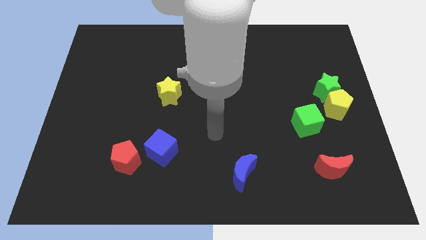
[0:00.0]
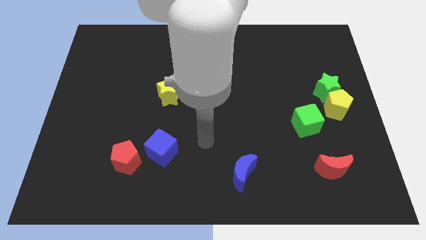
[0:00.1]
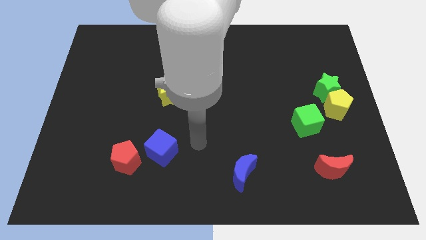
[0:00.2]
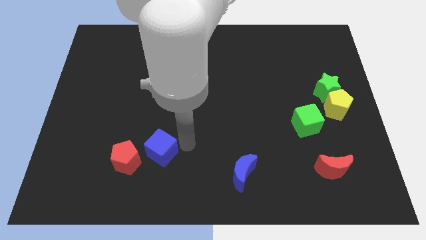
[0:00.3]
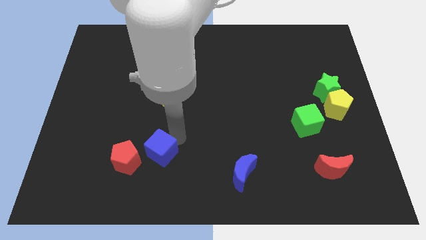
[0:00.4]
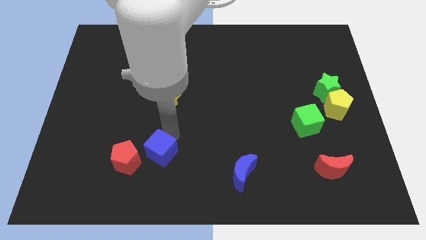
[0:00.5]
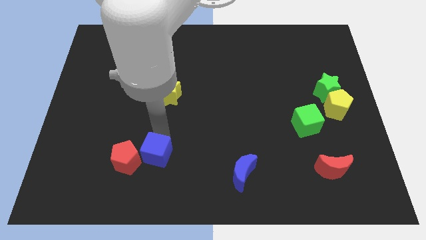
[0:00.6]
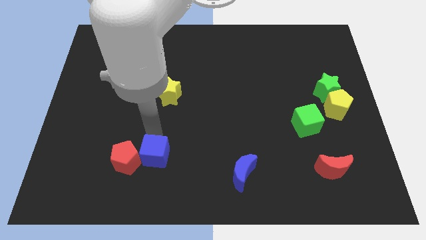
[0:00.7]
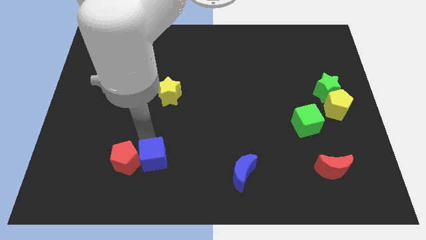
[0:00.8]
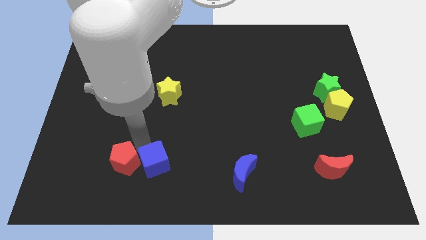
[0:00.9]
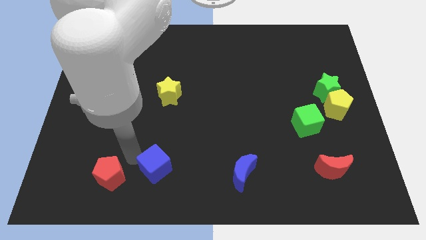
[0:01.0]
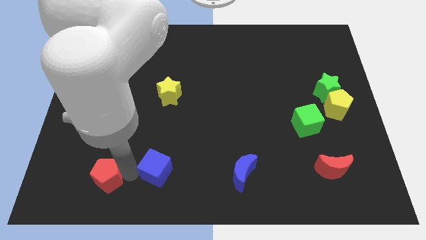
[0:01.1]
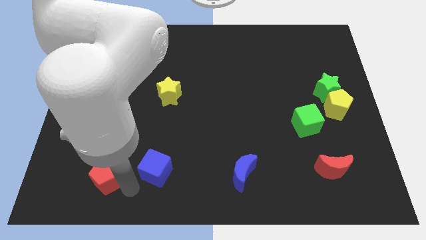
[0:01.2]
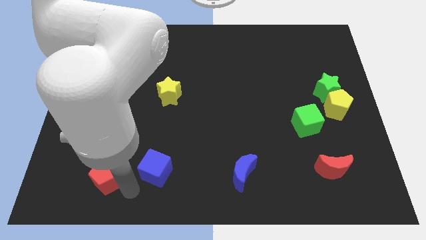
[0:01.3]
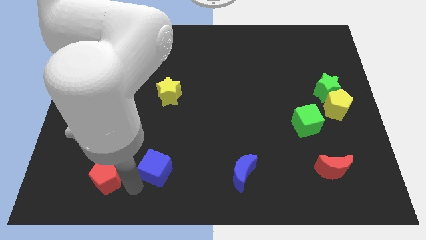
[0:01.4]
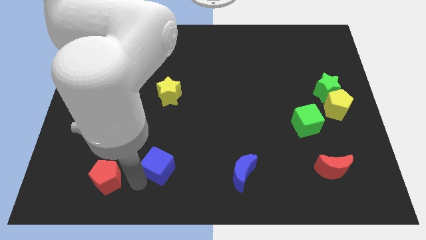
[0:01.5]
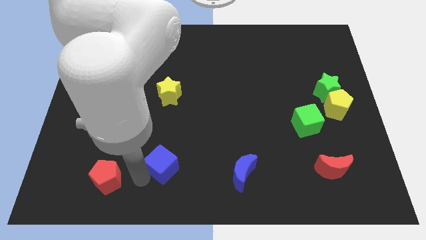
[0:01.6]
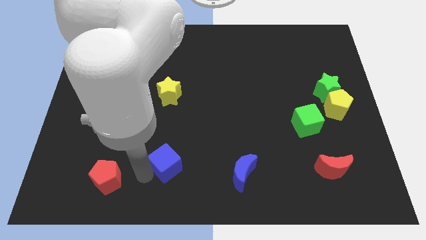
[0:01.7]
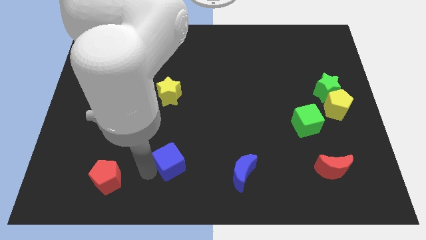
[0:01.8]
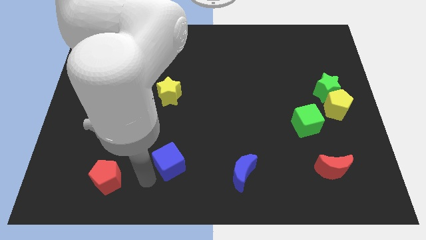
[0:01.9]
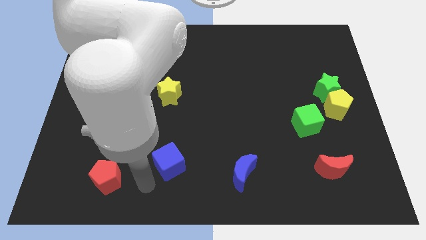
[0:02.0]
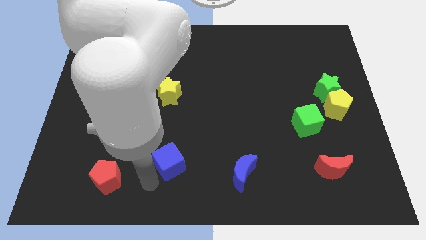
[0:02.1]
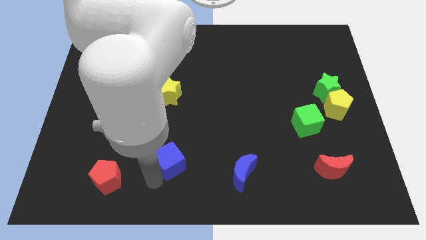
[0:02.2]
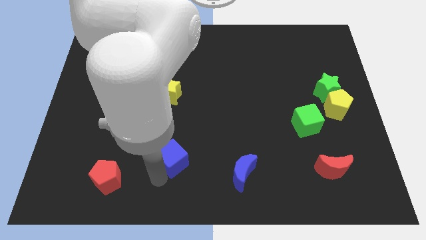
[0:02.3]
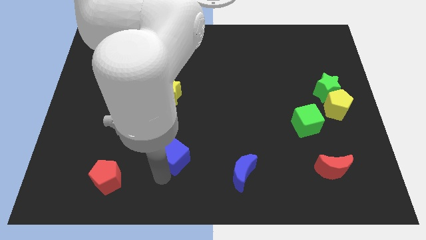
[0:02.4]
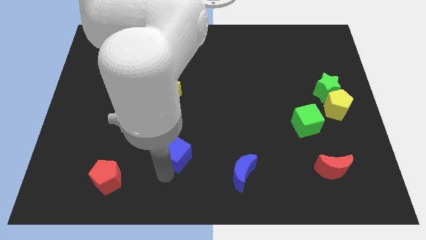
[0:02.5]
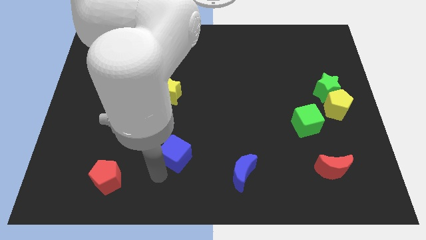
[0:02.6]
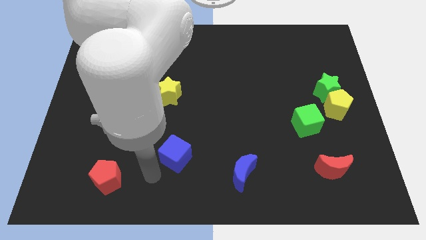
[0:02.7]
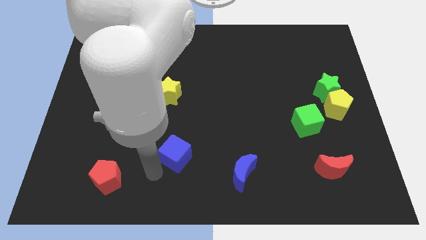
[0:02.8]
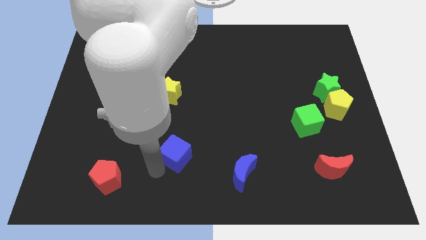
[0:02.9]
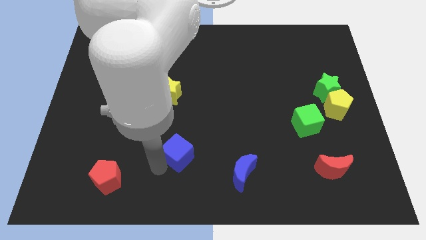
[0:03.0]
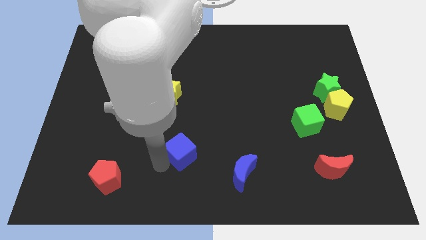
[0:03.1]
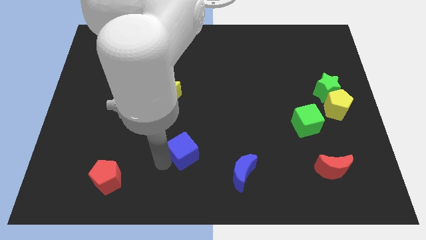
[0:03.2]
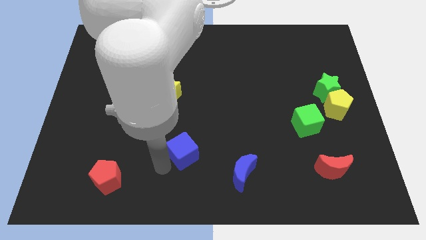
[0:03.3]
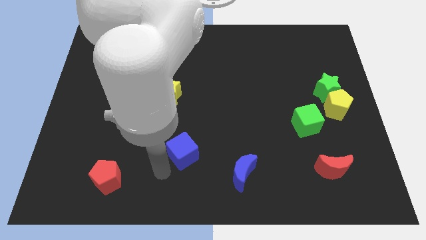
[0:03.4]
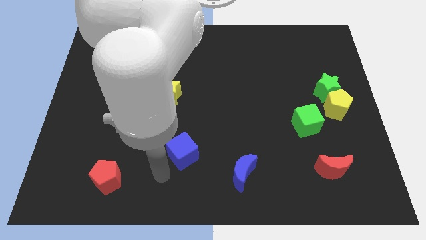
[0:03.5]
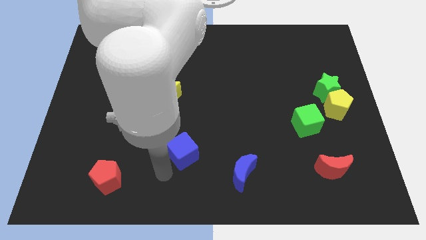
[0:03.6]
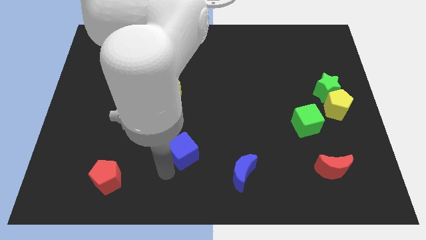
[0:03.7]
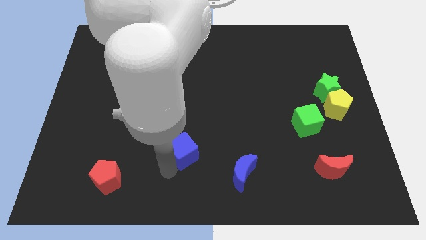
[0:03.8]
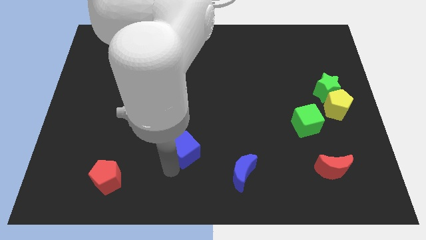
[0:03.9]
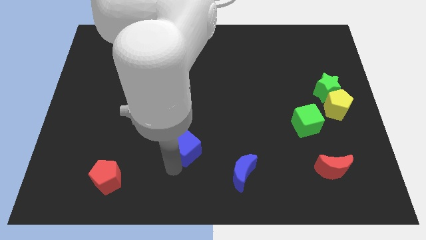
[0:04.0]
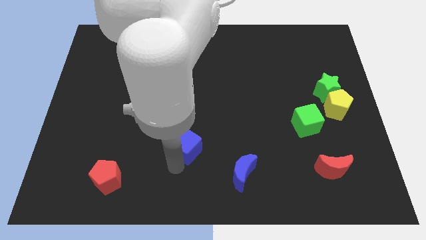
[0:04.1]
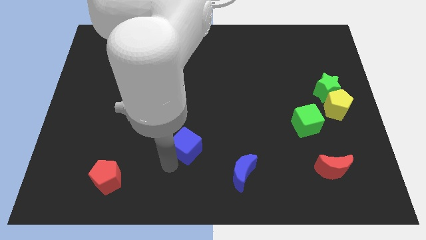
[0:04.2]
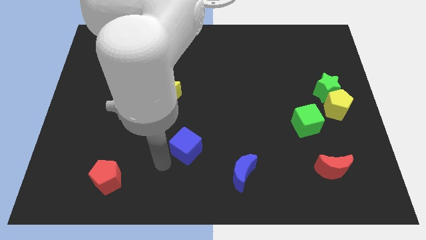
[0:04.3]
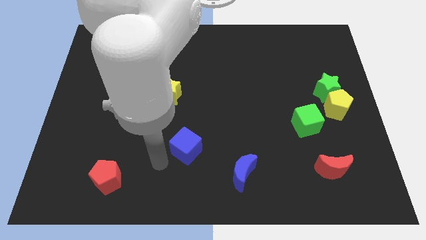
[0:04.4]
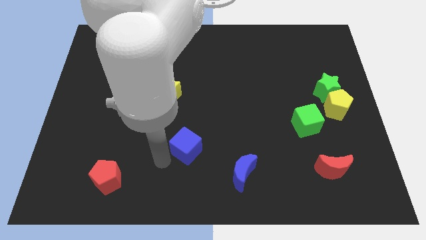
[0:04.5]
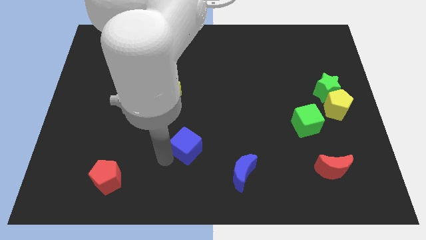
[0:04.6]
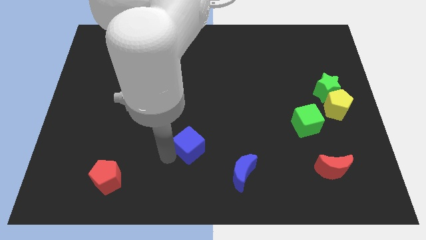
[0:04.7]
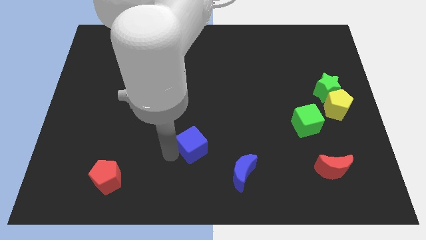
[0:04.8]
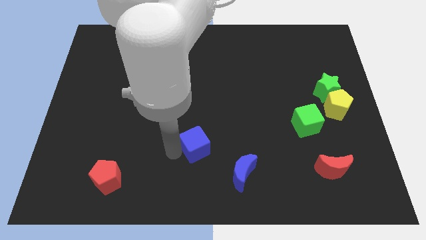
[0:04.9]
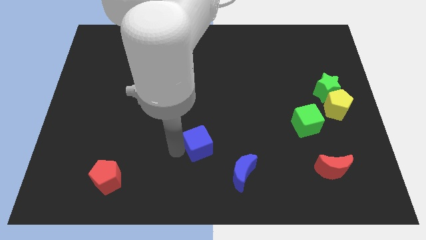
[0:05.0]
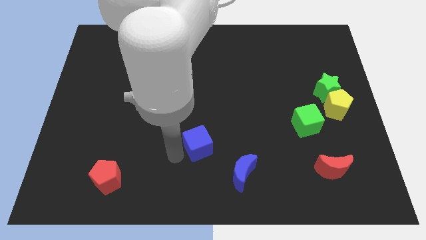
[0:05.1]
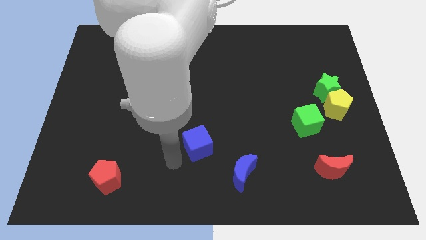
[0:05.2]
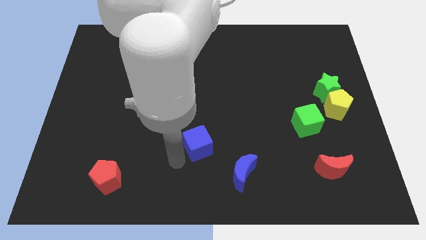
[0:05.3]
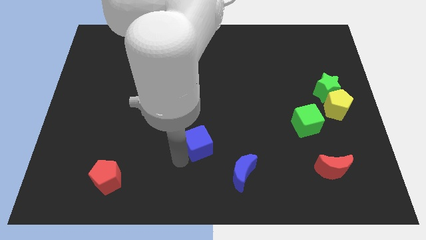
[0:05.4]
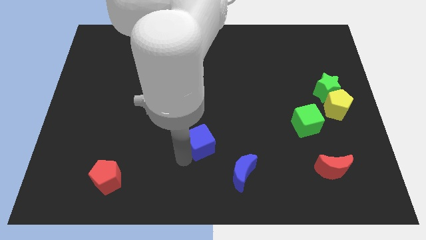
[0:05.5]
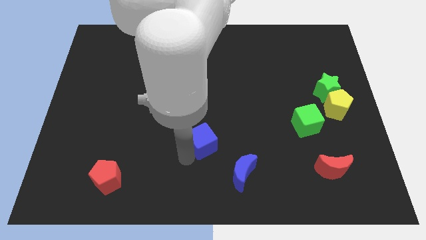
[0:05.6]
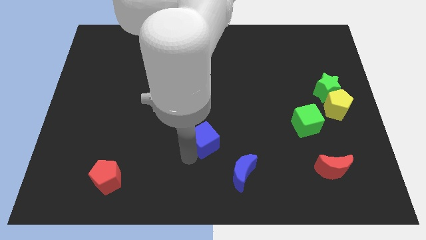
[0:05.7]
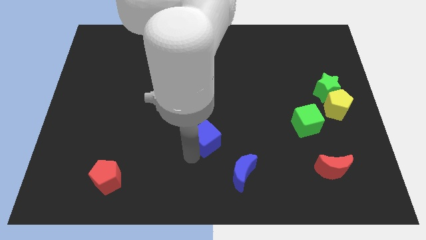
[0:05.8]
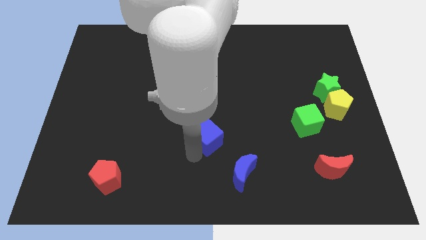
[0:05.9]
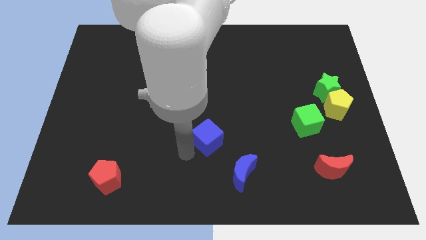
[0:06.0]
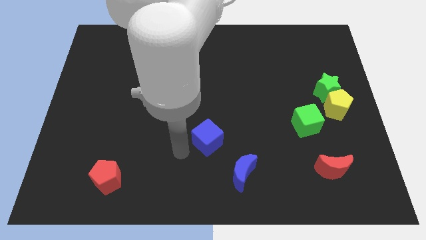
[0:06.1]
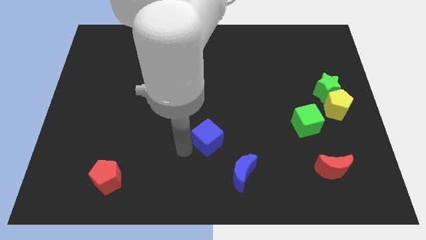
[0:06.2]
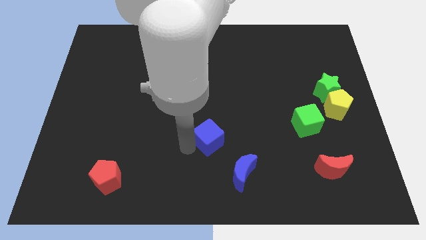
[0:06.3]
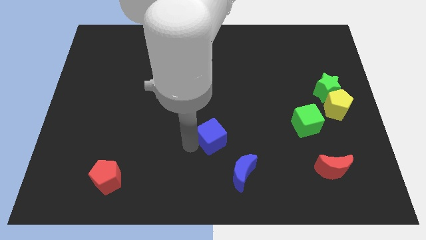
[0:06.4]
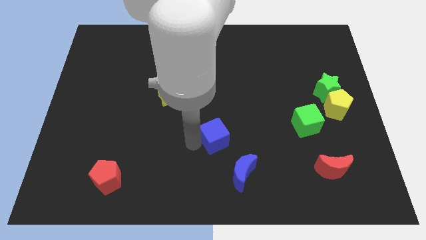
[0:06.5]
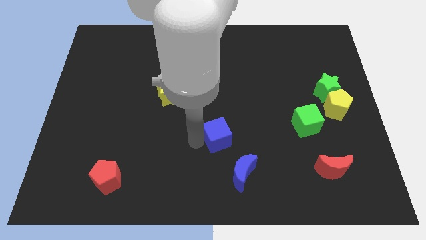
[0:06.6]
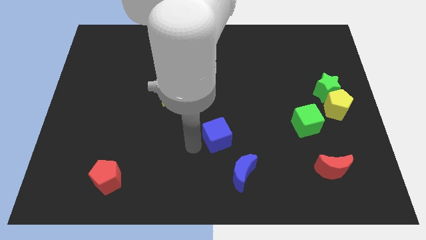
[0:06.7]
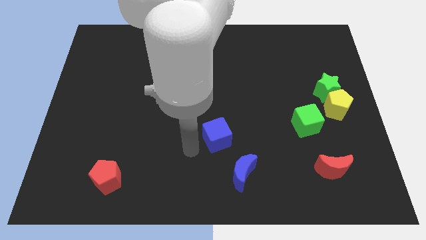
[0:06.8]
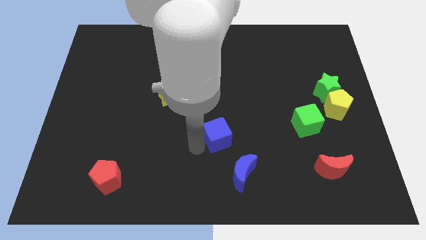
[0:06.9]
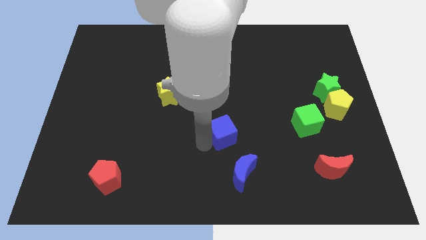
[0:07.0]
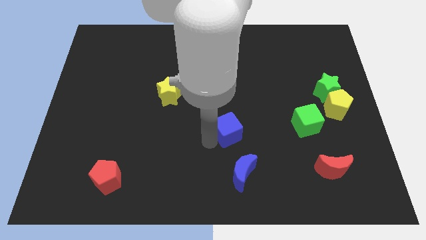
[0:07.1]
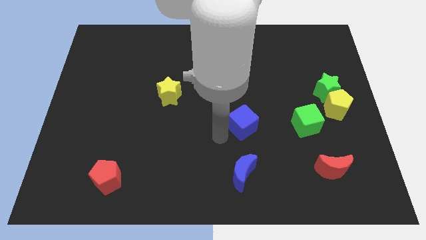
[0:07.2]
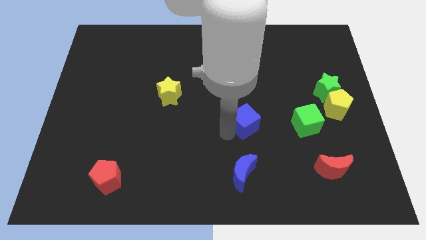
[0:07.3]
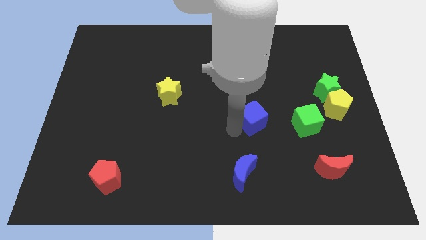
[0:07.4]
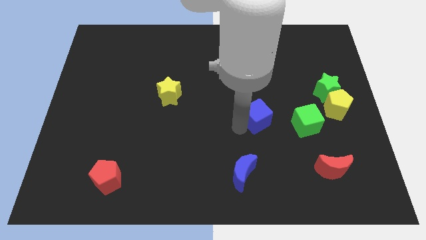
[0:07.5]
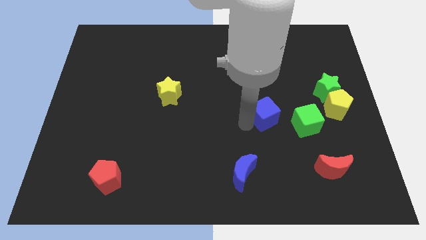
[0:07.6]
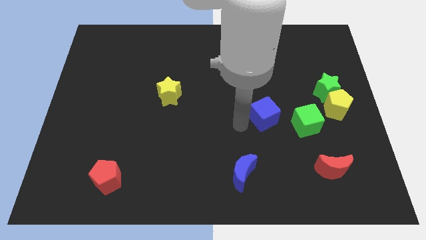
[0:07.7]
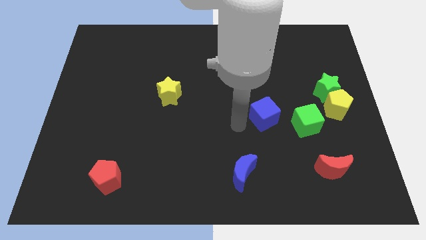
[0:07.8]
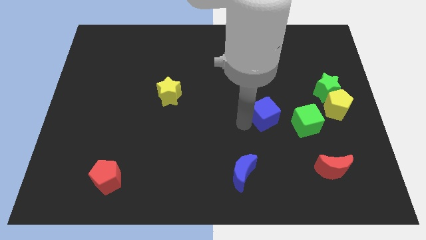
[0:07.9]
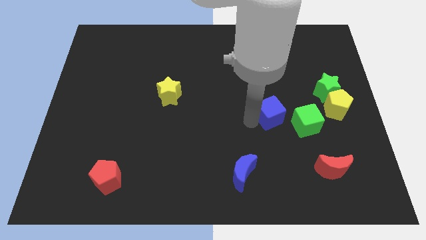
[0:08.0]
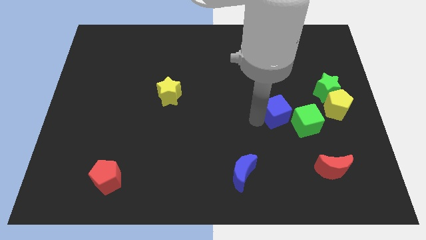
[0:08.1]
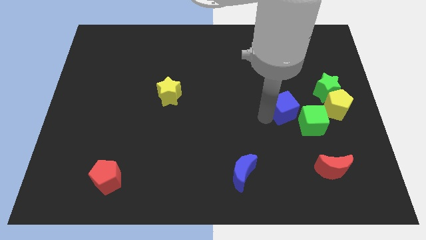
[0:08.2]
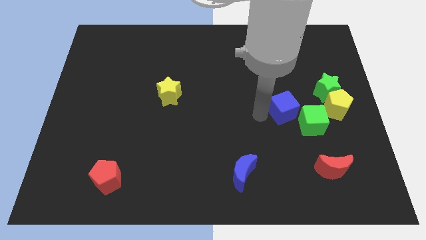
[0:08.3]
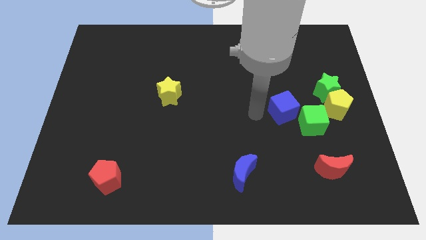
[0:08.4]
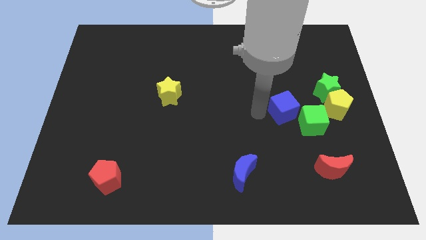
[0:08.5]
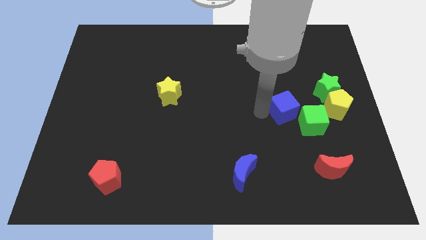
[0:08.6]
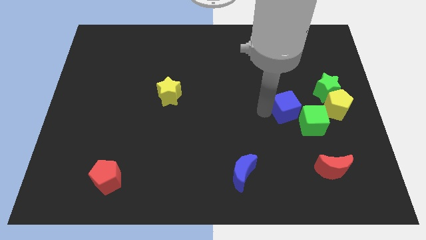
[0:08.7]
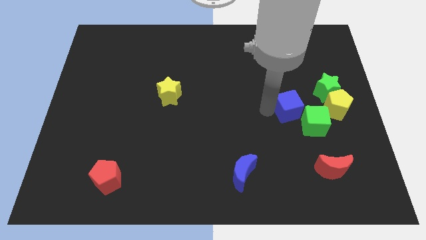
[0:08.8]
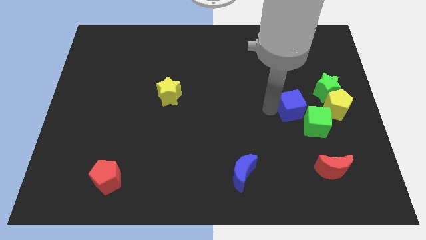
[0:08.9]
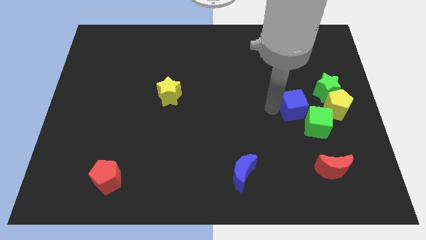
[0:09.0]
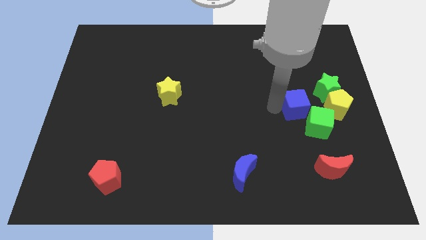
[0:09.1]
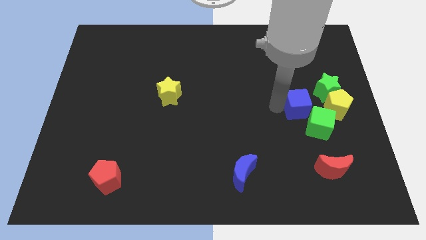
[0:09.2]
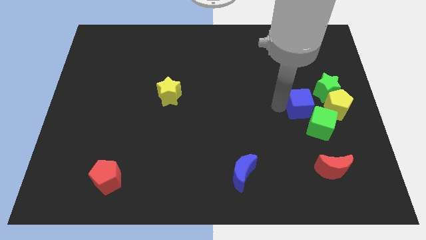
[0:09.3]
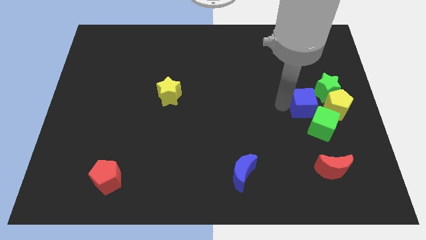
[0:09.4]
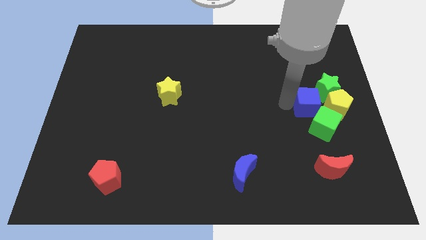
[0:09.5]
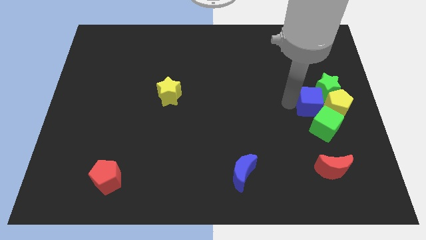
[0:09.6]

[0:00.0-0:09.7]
push the blue cube next to the yellow pentagon
